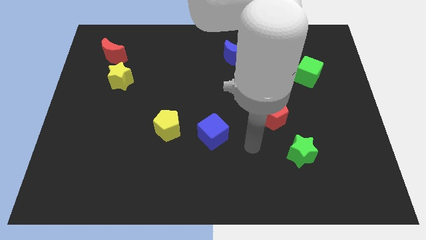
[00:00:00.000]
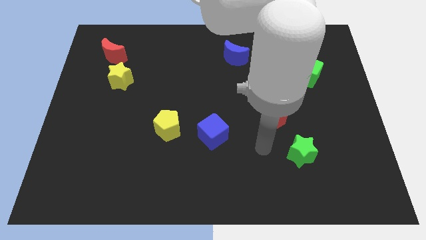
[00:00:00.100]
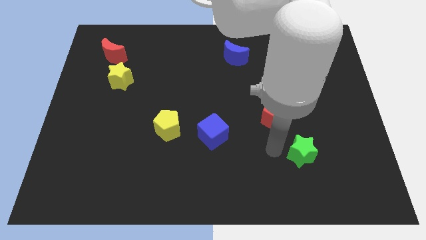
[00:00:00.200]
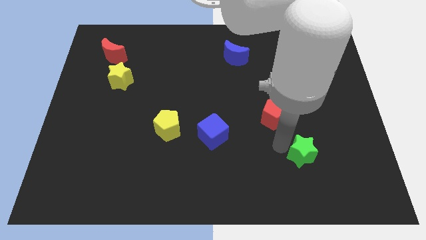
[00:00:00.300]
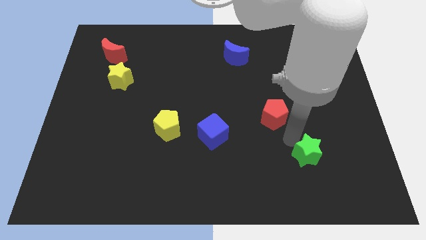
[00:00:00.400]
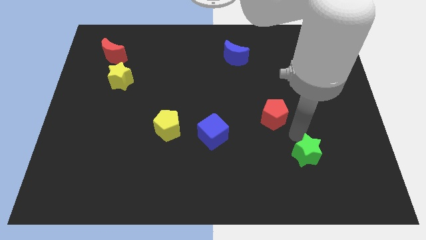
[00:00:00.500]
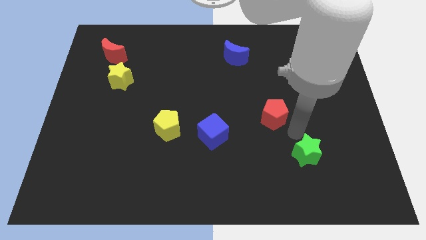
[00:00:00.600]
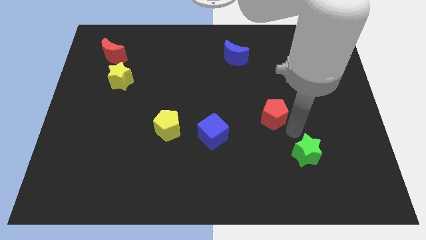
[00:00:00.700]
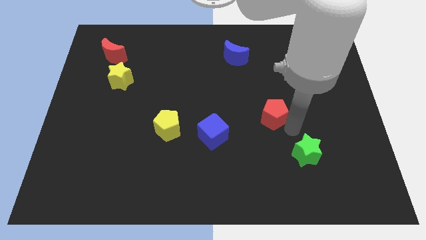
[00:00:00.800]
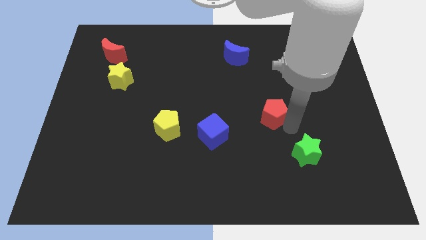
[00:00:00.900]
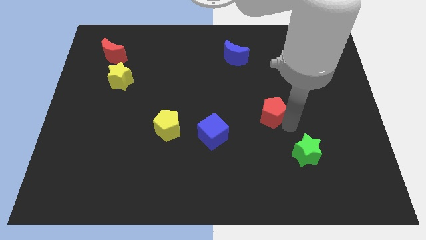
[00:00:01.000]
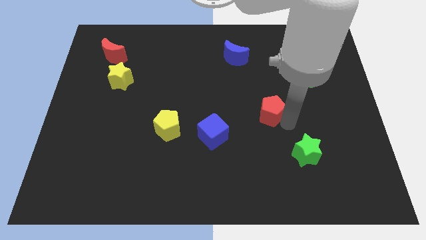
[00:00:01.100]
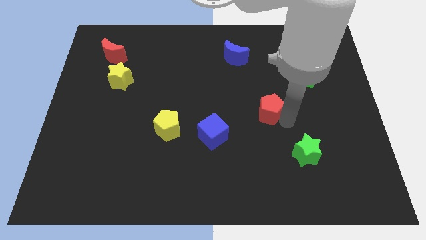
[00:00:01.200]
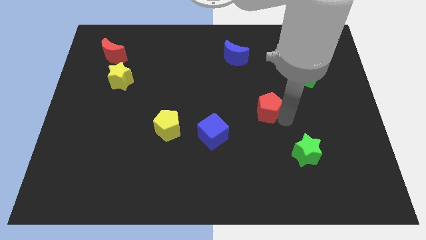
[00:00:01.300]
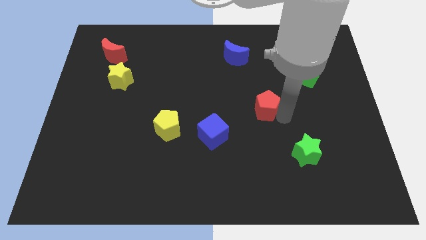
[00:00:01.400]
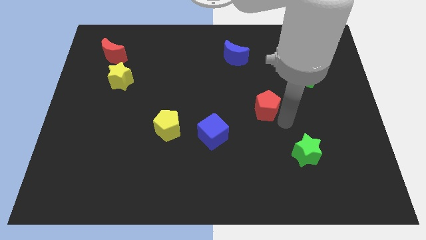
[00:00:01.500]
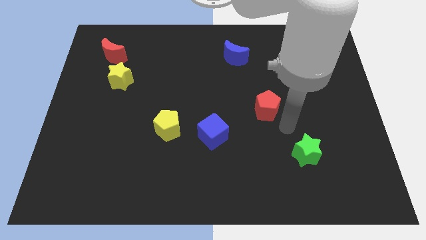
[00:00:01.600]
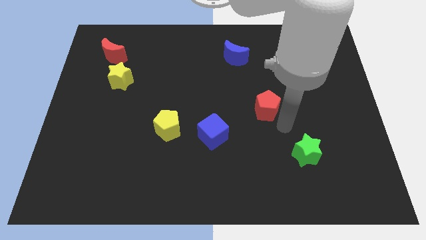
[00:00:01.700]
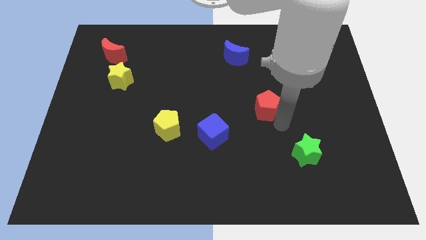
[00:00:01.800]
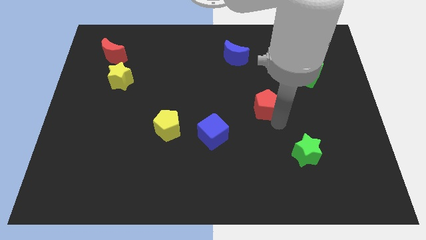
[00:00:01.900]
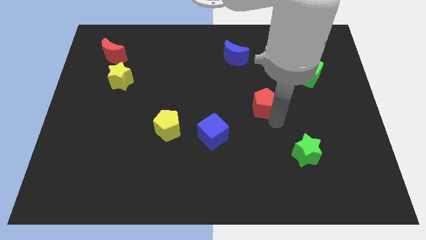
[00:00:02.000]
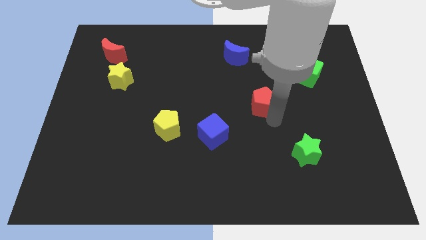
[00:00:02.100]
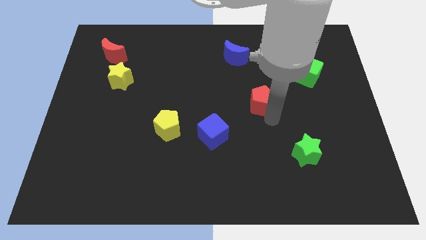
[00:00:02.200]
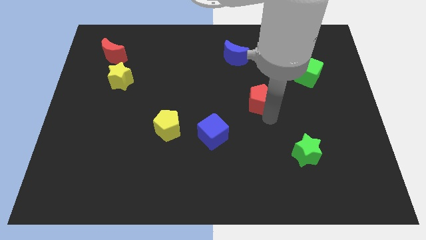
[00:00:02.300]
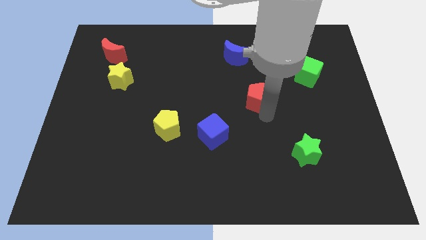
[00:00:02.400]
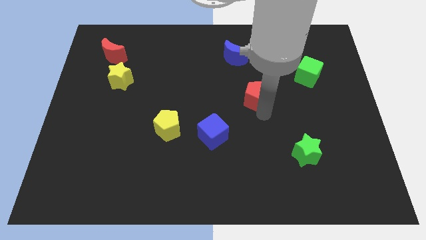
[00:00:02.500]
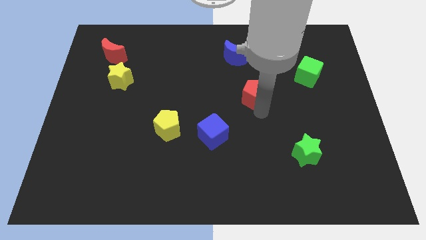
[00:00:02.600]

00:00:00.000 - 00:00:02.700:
slide the red pentagon up and then left a bit

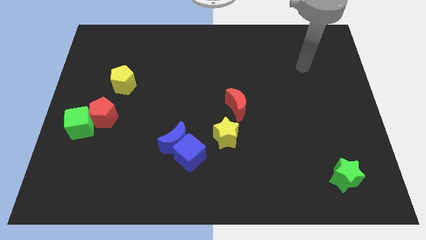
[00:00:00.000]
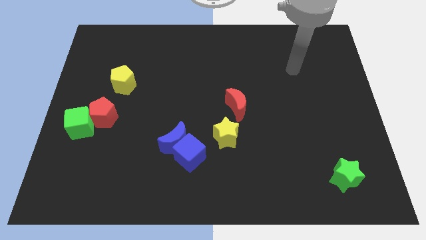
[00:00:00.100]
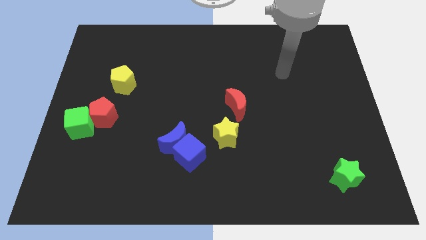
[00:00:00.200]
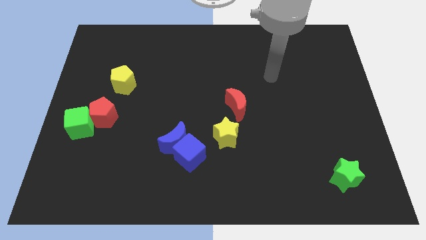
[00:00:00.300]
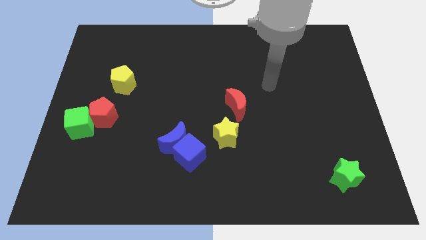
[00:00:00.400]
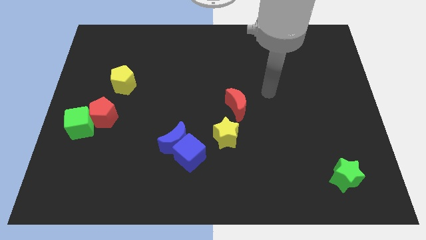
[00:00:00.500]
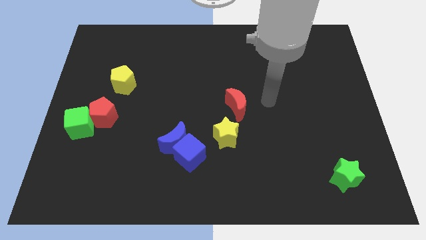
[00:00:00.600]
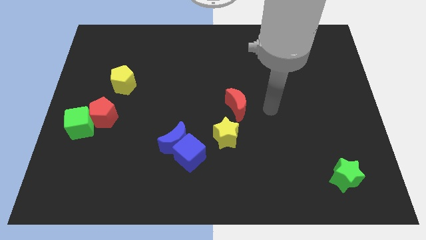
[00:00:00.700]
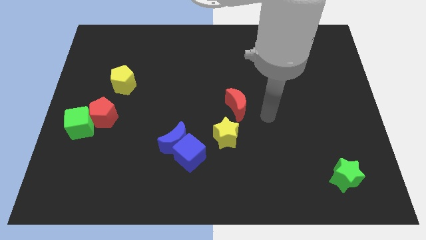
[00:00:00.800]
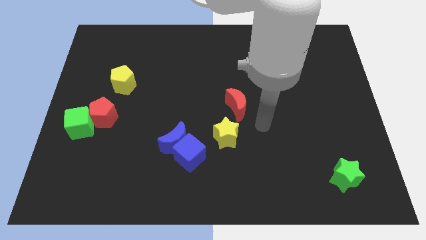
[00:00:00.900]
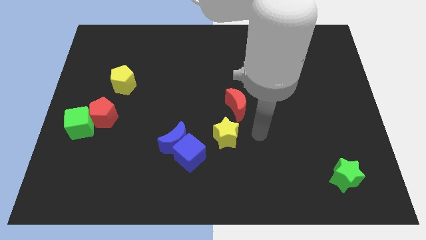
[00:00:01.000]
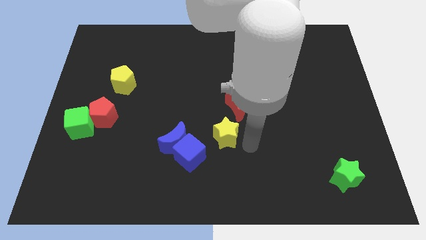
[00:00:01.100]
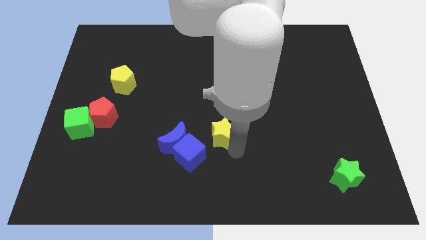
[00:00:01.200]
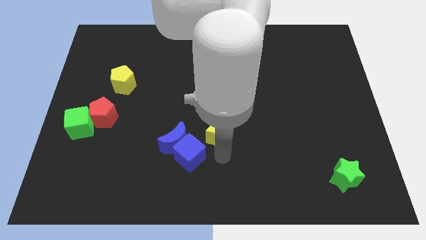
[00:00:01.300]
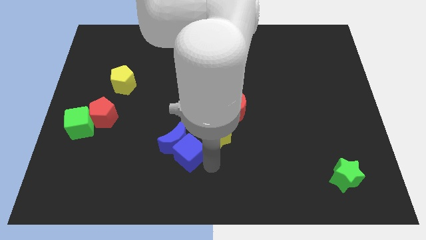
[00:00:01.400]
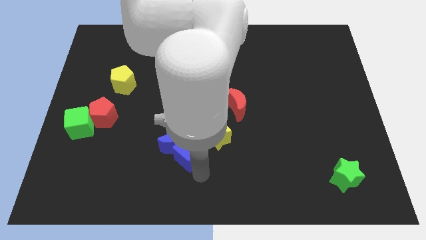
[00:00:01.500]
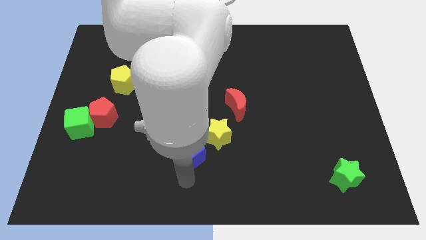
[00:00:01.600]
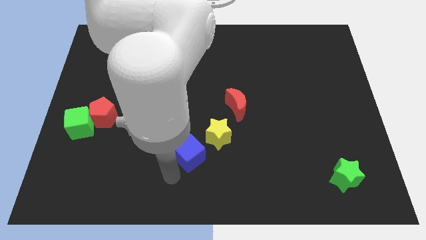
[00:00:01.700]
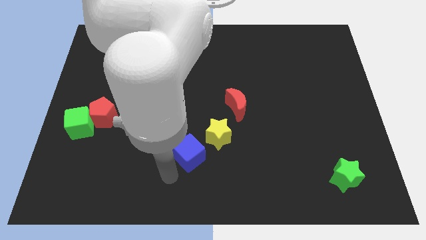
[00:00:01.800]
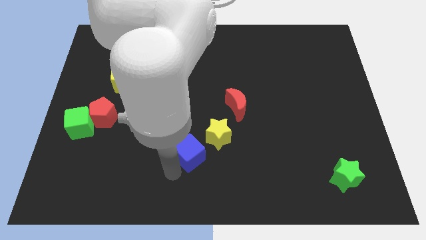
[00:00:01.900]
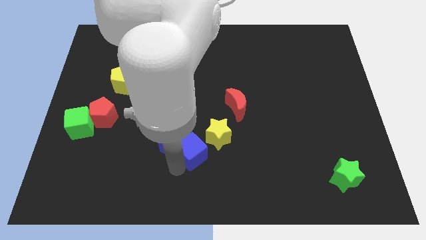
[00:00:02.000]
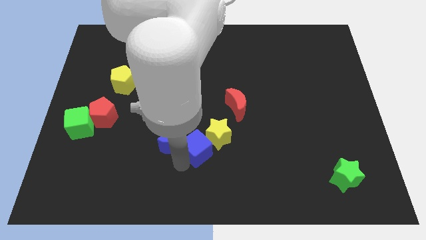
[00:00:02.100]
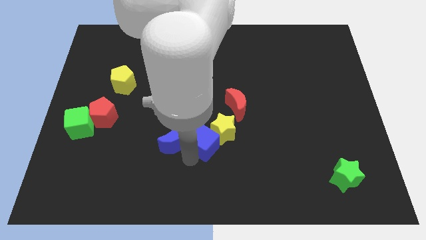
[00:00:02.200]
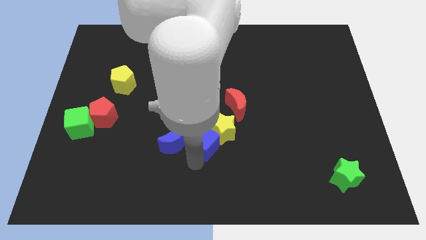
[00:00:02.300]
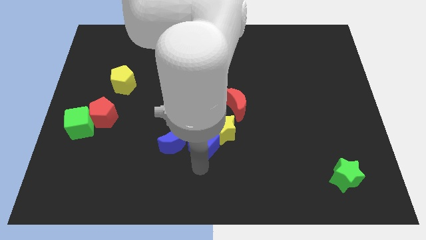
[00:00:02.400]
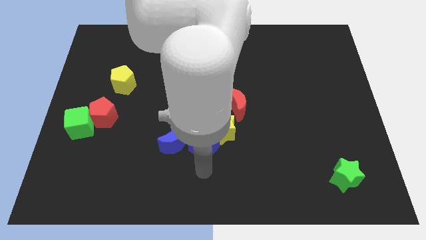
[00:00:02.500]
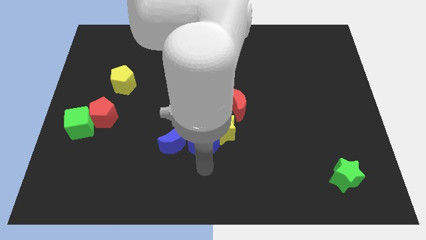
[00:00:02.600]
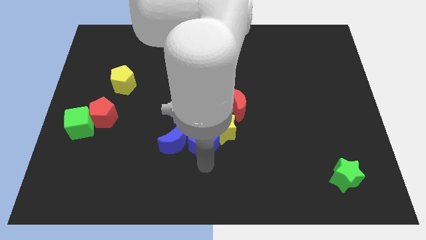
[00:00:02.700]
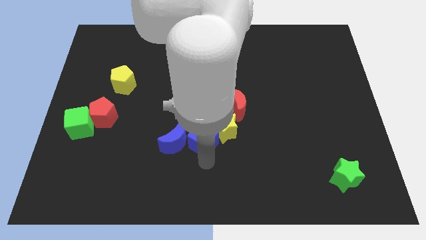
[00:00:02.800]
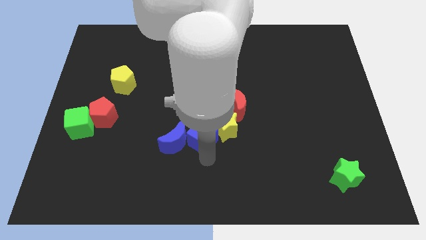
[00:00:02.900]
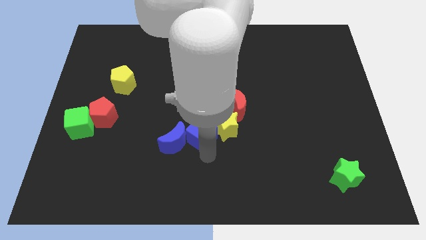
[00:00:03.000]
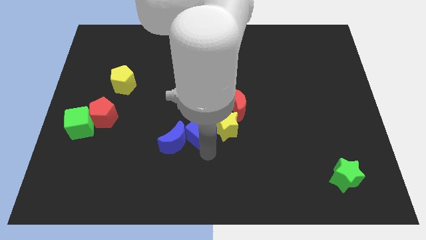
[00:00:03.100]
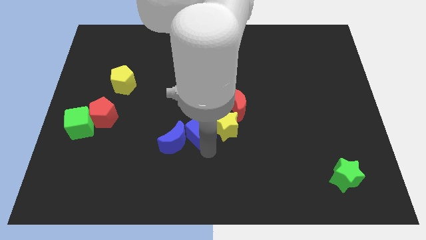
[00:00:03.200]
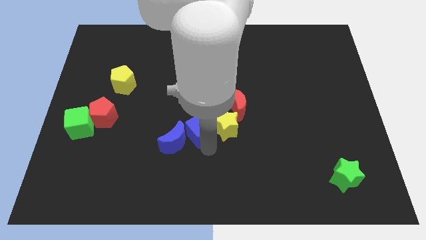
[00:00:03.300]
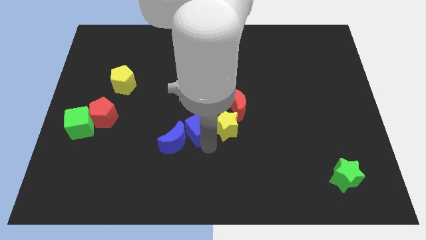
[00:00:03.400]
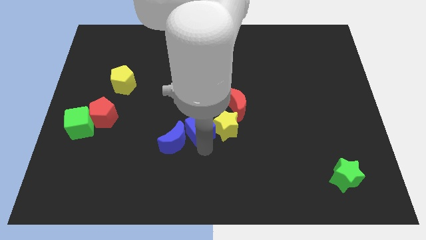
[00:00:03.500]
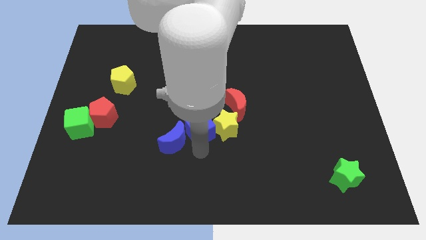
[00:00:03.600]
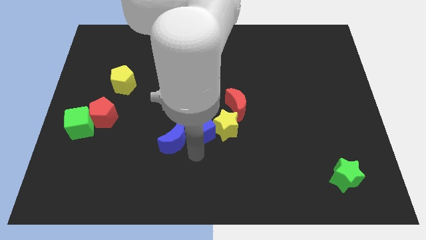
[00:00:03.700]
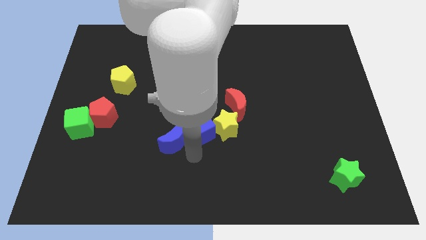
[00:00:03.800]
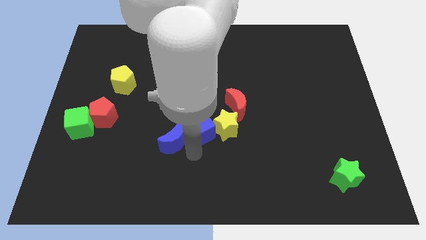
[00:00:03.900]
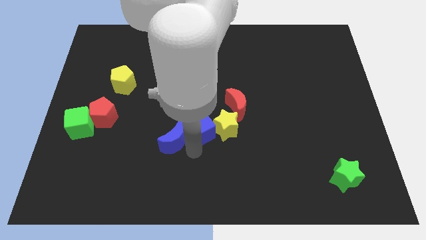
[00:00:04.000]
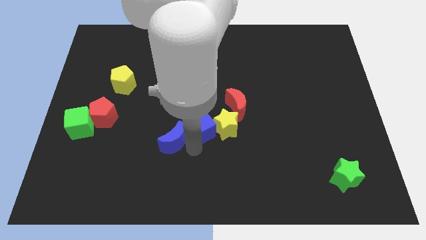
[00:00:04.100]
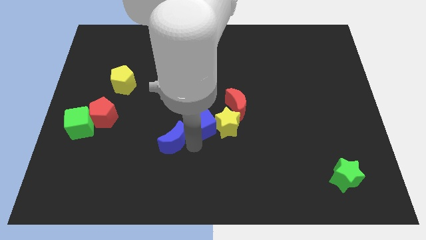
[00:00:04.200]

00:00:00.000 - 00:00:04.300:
slightly slide the blue cube upwards

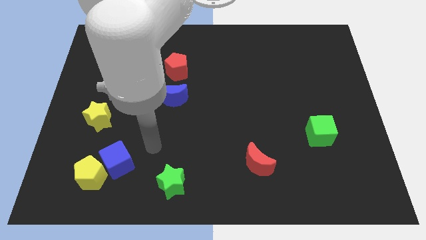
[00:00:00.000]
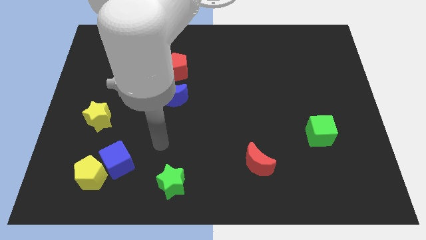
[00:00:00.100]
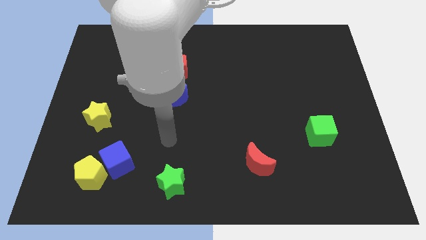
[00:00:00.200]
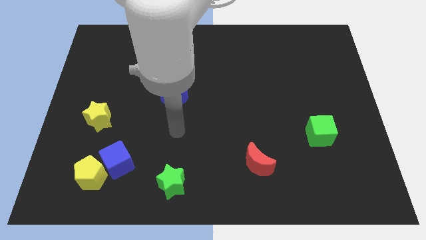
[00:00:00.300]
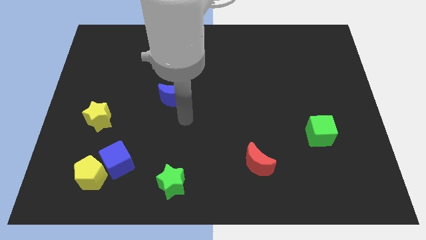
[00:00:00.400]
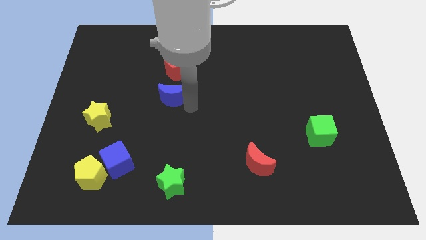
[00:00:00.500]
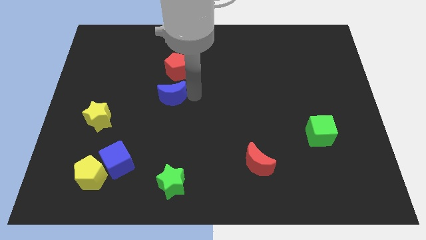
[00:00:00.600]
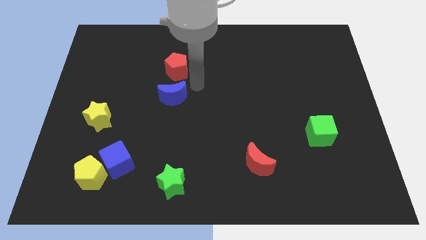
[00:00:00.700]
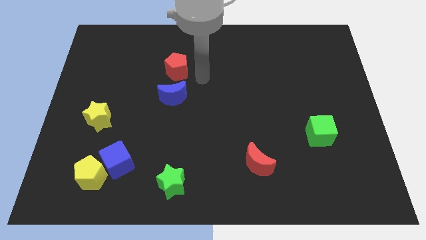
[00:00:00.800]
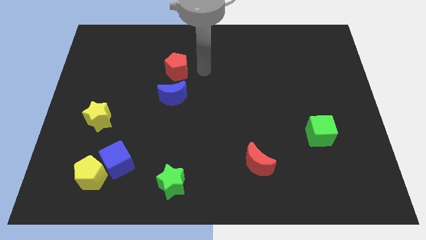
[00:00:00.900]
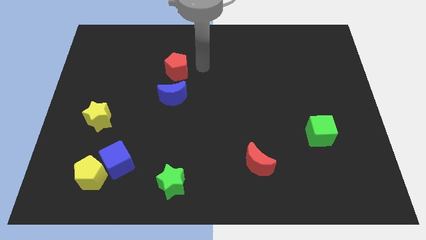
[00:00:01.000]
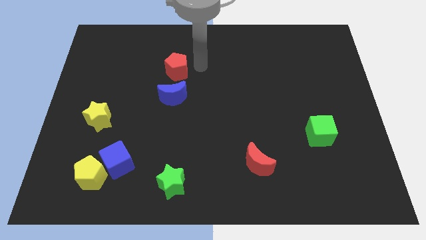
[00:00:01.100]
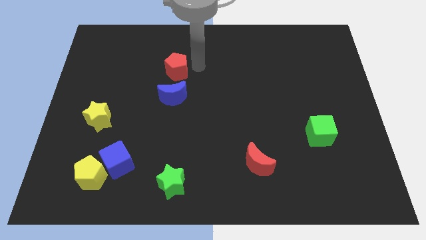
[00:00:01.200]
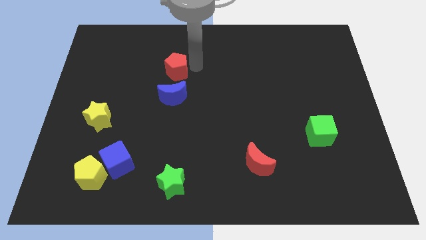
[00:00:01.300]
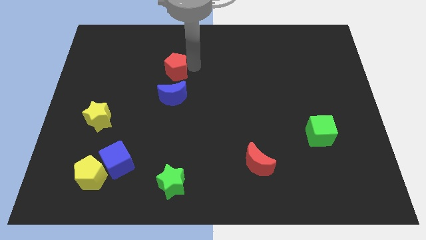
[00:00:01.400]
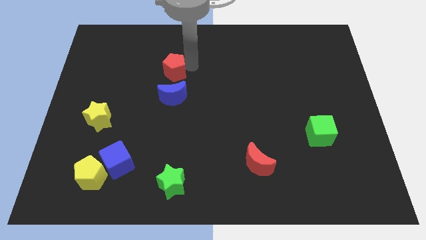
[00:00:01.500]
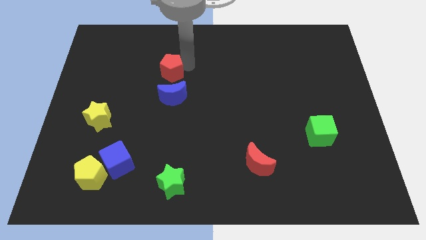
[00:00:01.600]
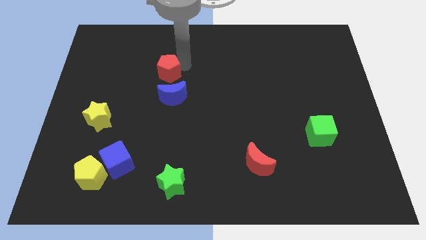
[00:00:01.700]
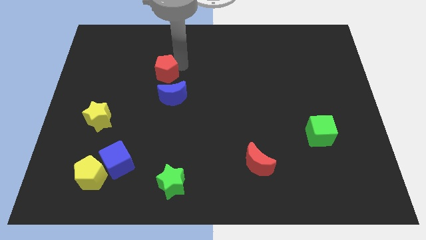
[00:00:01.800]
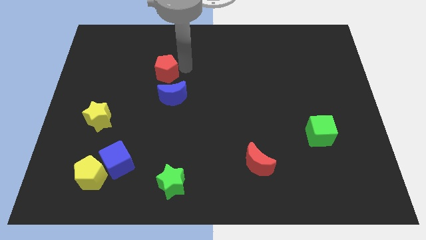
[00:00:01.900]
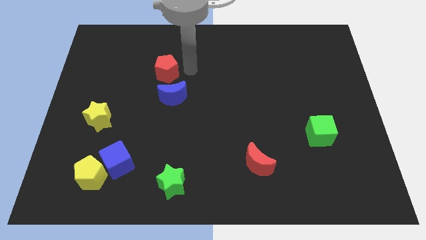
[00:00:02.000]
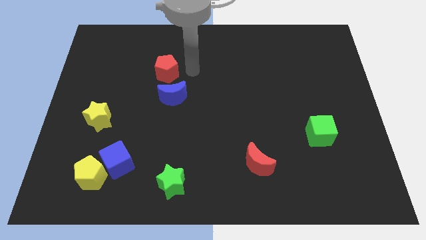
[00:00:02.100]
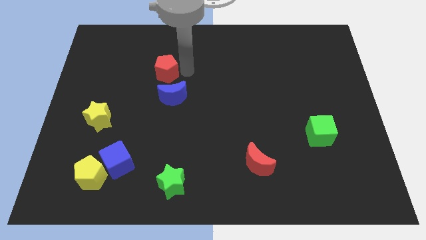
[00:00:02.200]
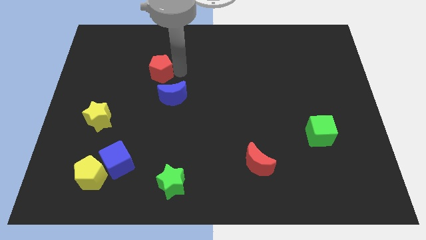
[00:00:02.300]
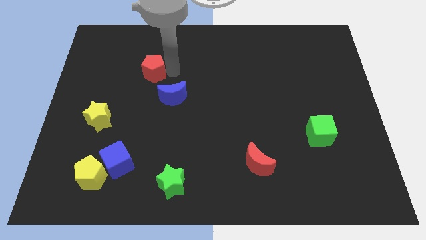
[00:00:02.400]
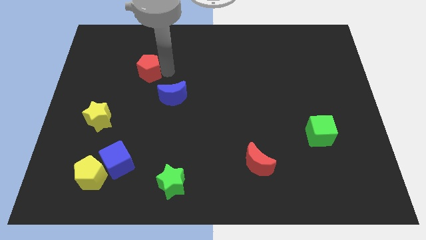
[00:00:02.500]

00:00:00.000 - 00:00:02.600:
move the red pentagon somewhat left
